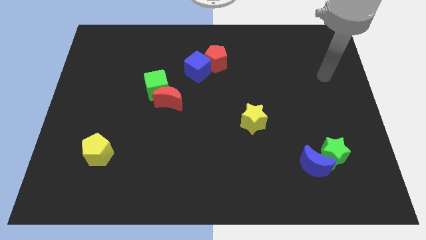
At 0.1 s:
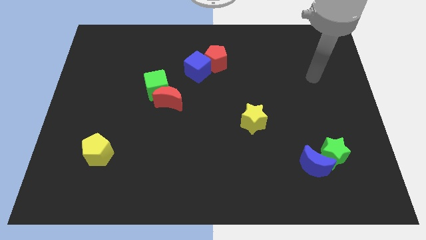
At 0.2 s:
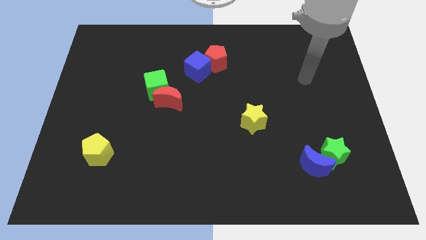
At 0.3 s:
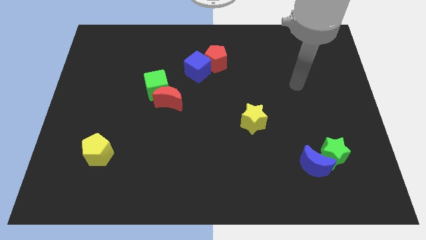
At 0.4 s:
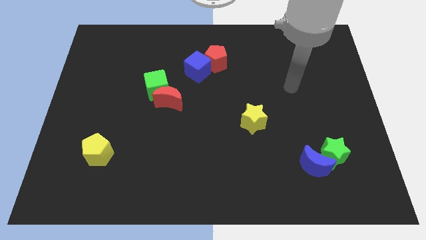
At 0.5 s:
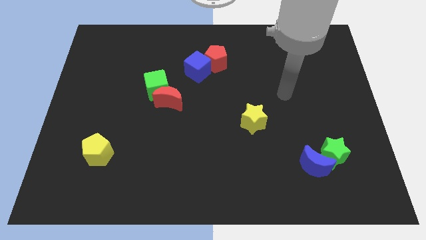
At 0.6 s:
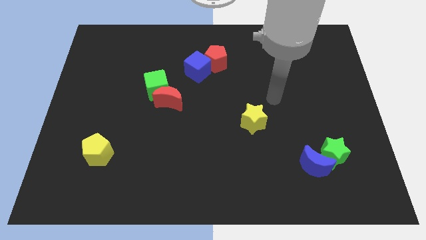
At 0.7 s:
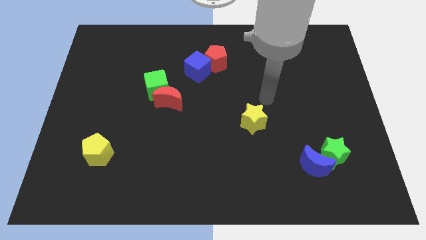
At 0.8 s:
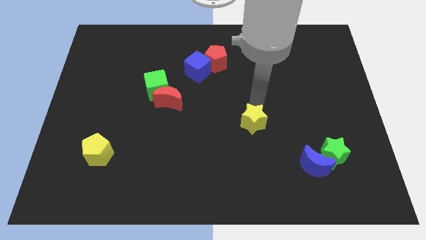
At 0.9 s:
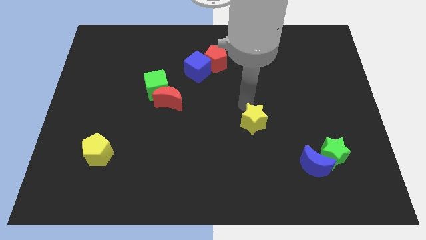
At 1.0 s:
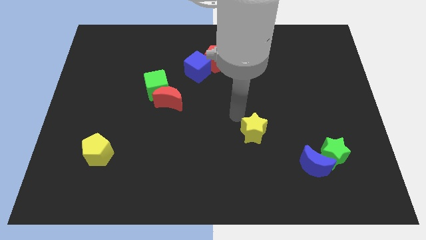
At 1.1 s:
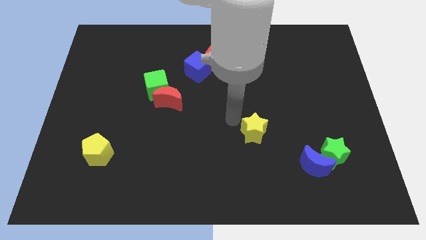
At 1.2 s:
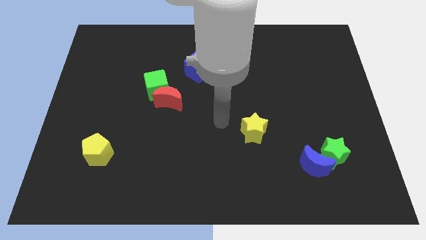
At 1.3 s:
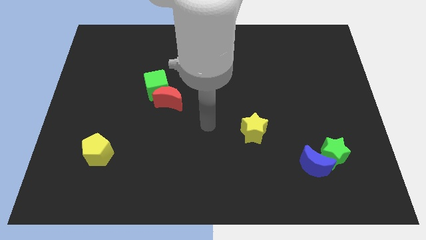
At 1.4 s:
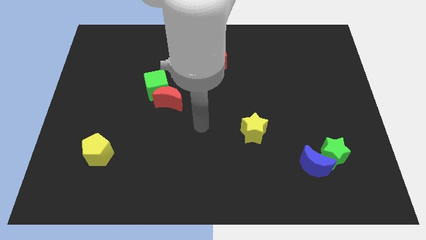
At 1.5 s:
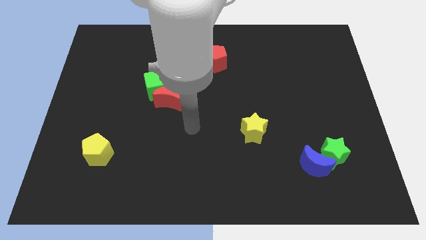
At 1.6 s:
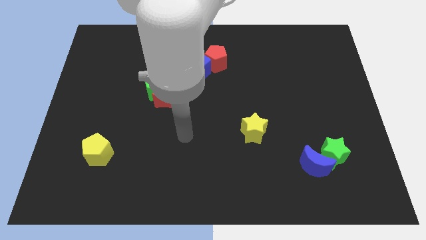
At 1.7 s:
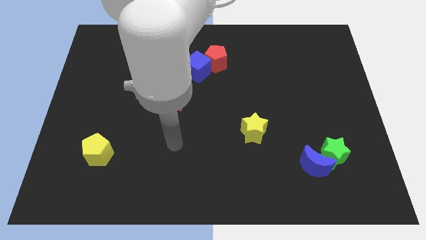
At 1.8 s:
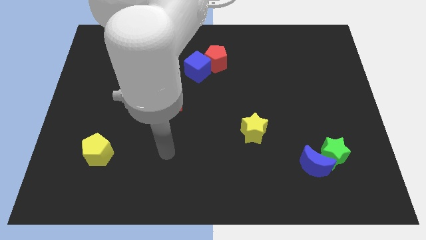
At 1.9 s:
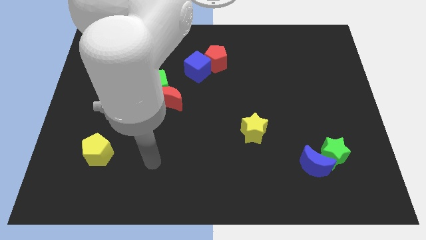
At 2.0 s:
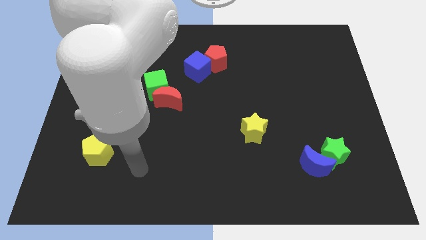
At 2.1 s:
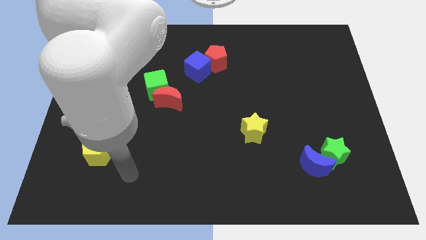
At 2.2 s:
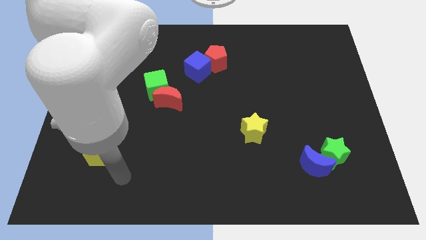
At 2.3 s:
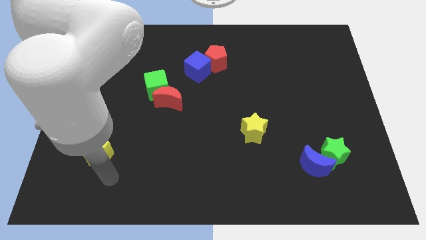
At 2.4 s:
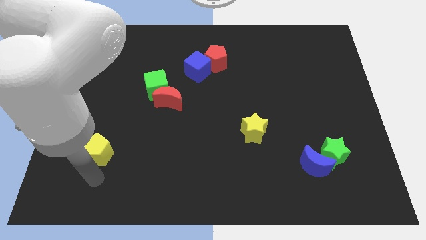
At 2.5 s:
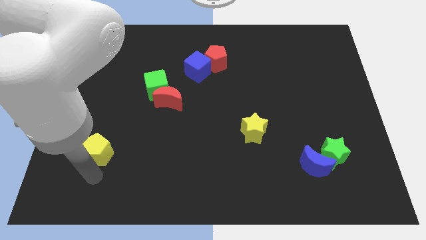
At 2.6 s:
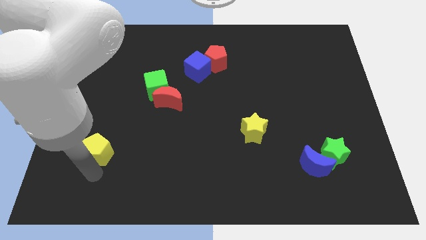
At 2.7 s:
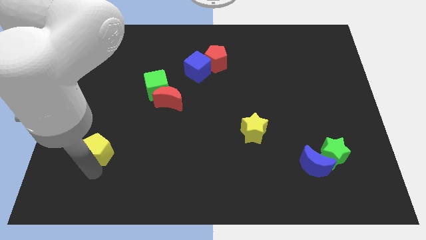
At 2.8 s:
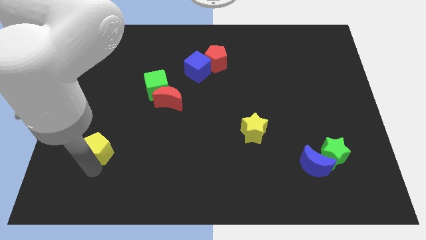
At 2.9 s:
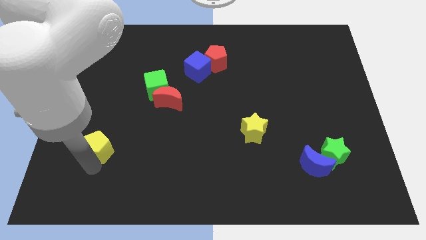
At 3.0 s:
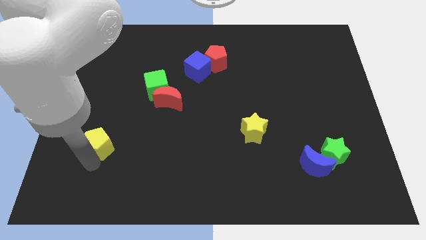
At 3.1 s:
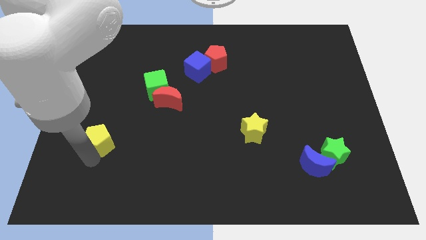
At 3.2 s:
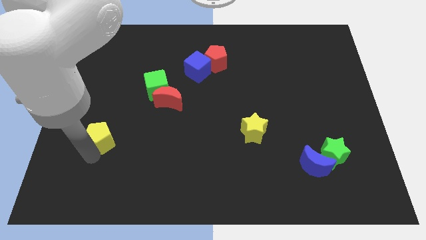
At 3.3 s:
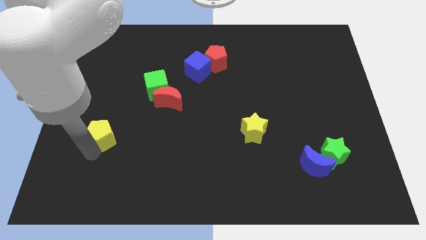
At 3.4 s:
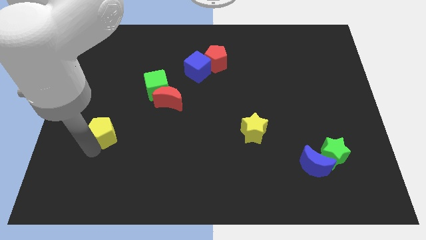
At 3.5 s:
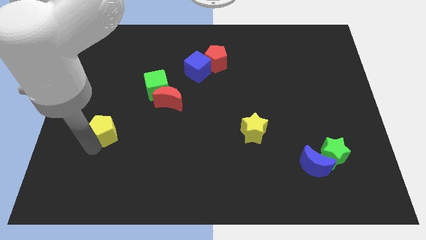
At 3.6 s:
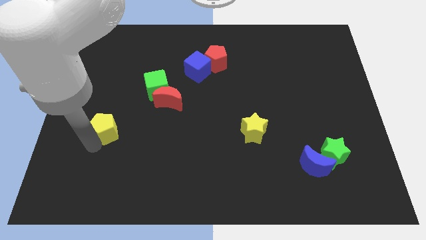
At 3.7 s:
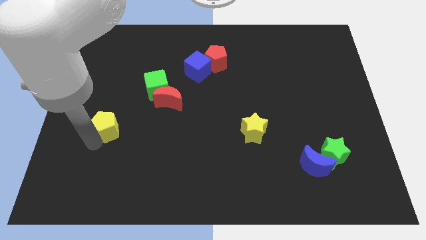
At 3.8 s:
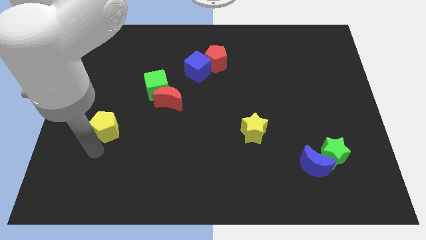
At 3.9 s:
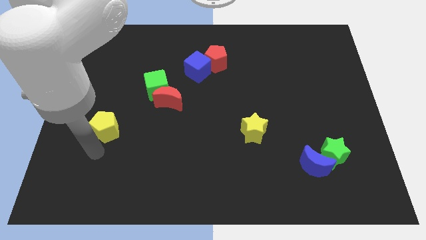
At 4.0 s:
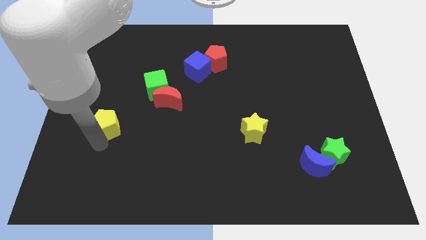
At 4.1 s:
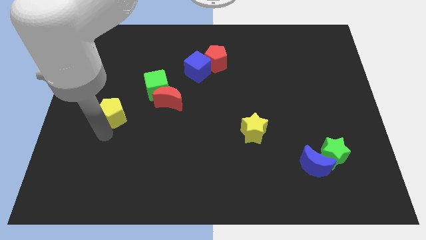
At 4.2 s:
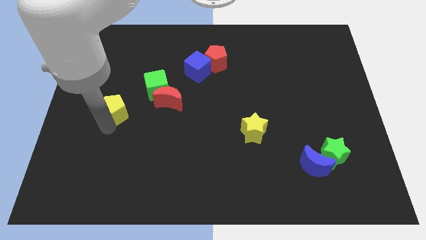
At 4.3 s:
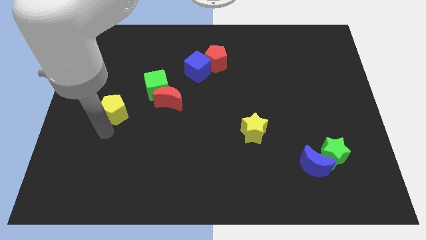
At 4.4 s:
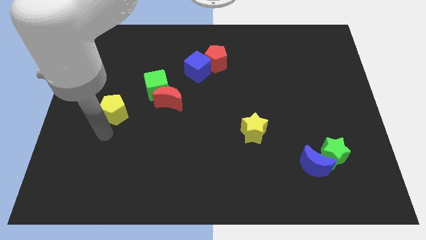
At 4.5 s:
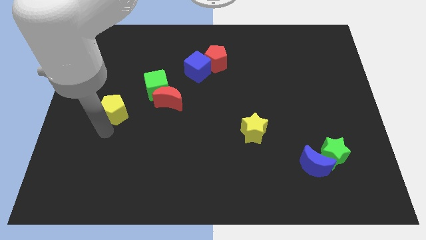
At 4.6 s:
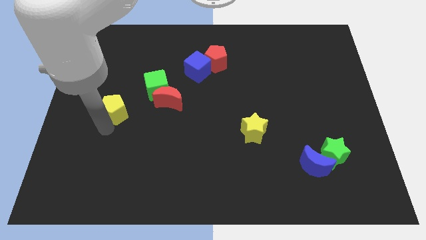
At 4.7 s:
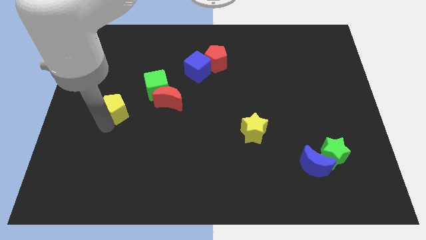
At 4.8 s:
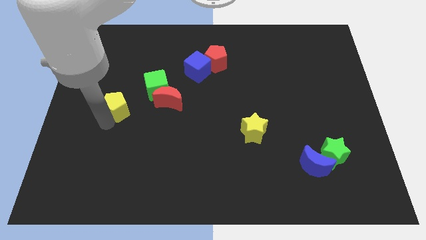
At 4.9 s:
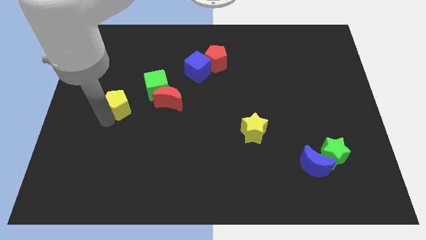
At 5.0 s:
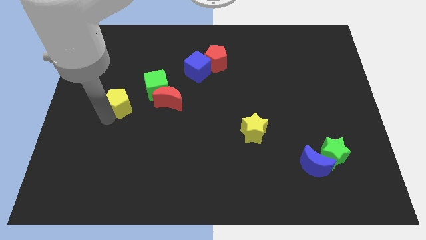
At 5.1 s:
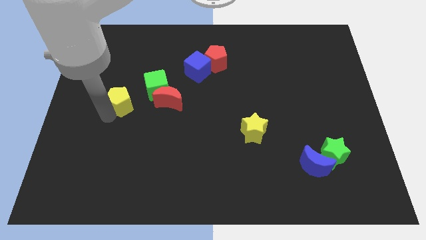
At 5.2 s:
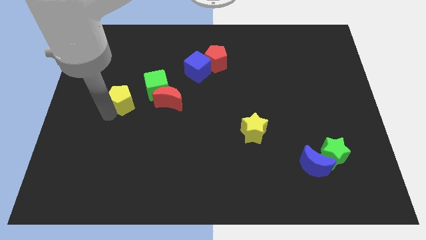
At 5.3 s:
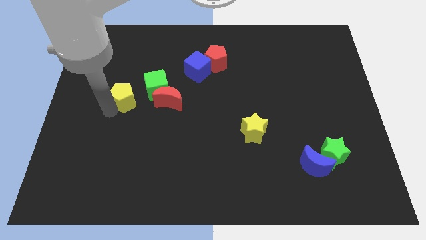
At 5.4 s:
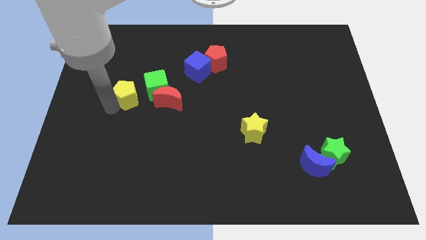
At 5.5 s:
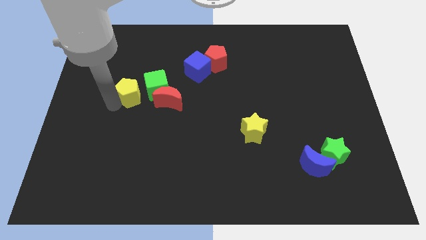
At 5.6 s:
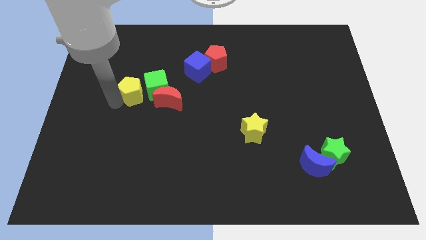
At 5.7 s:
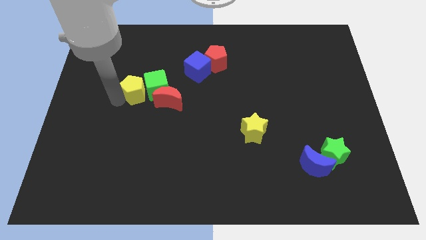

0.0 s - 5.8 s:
put the yellow pentagon to the top left side of the green cube

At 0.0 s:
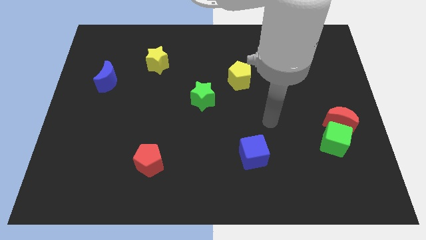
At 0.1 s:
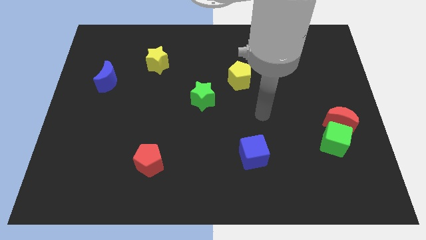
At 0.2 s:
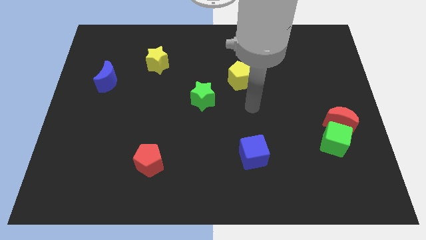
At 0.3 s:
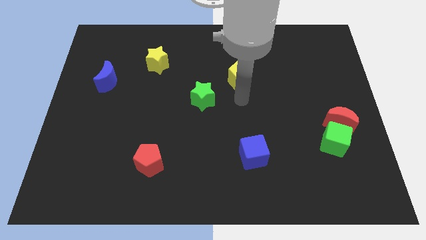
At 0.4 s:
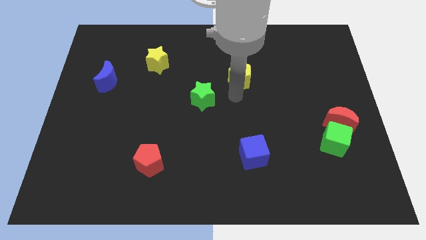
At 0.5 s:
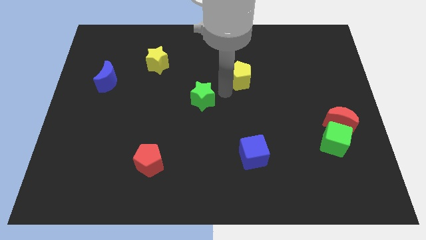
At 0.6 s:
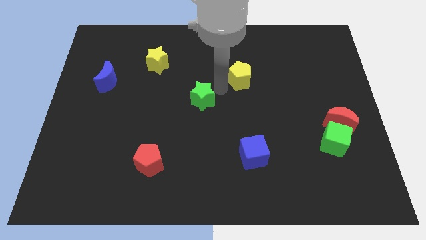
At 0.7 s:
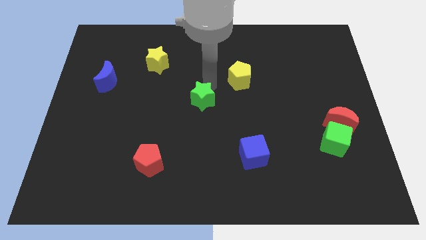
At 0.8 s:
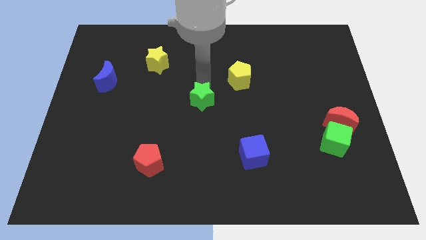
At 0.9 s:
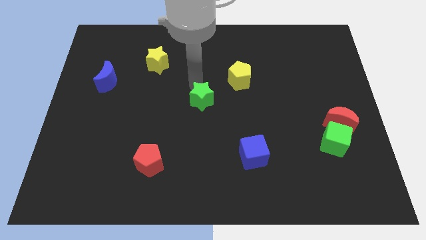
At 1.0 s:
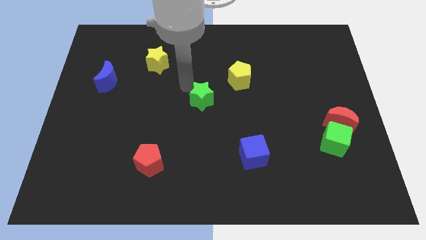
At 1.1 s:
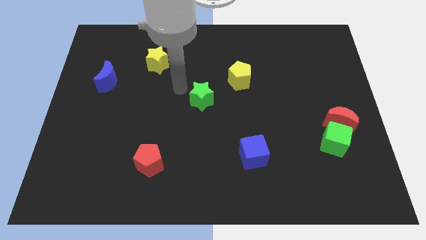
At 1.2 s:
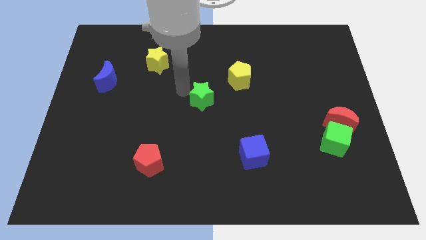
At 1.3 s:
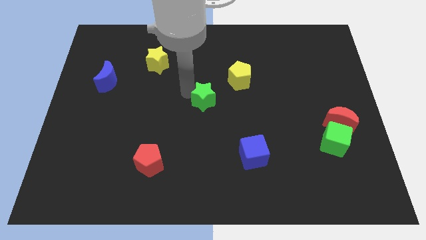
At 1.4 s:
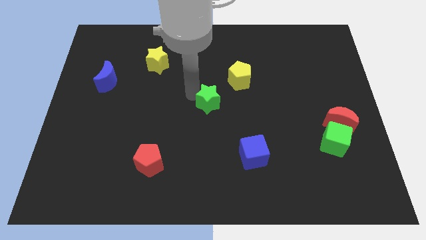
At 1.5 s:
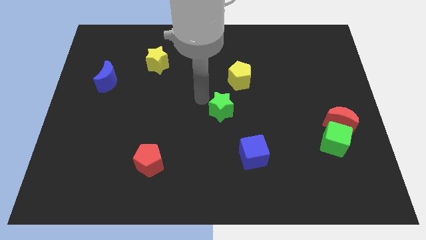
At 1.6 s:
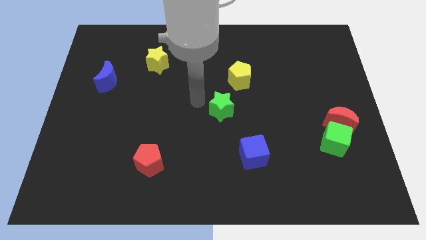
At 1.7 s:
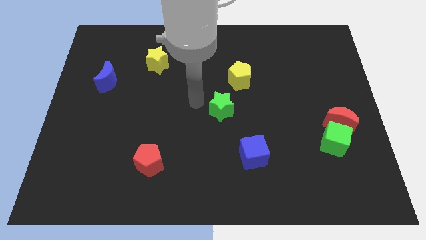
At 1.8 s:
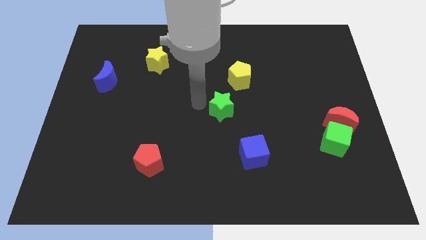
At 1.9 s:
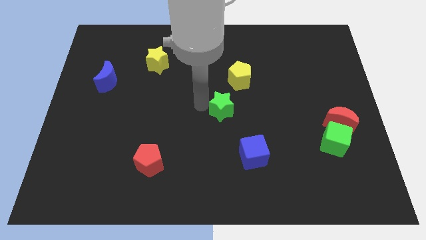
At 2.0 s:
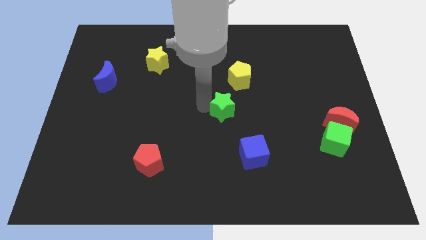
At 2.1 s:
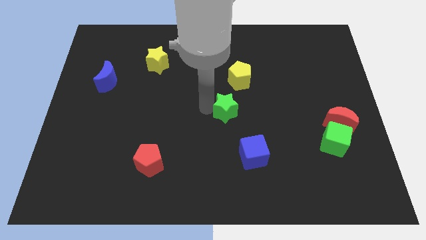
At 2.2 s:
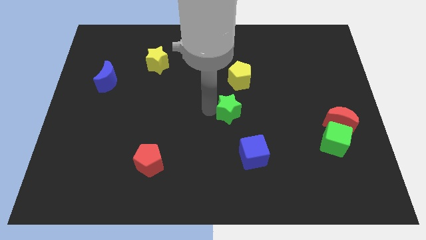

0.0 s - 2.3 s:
move the green star to the top of the blue cube
